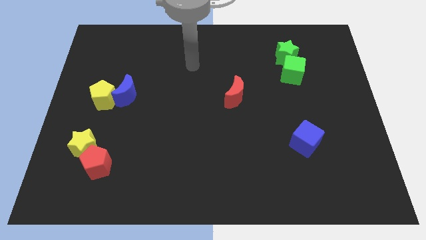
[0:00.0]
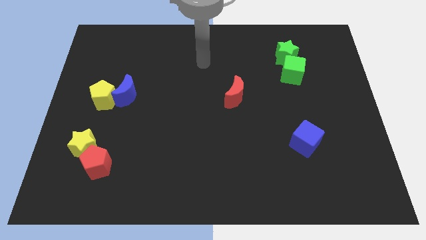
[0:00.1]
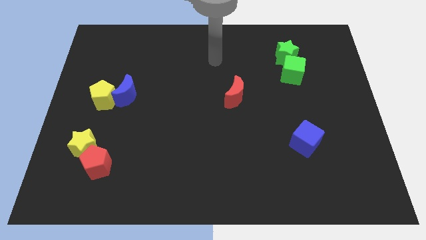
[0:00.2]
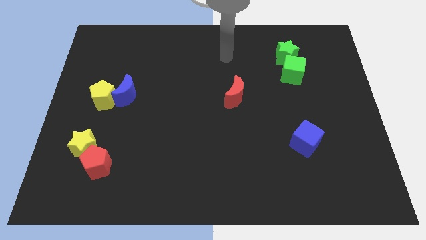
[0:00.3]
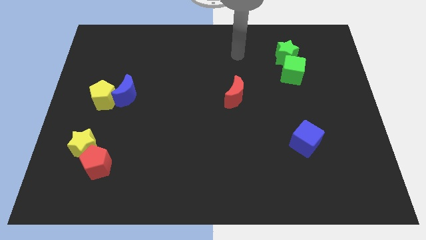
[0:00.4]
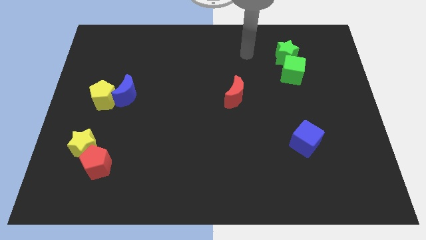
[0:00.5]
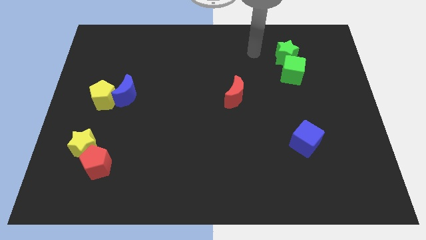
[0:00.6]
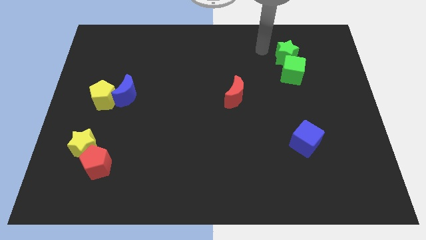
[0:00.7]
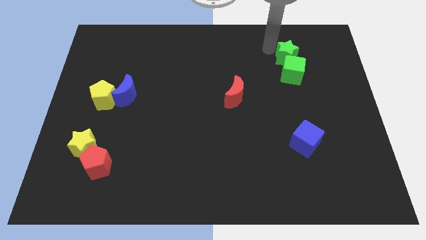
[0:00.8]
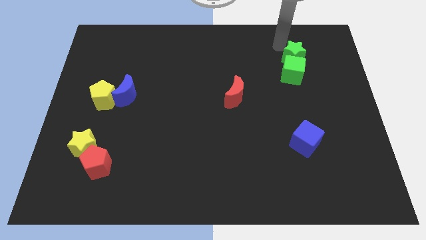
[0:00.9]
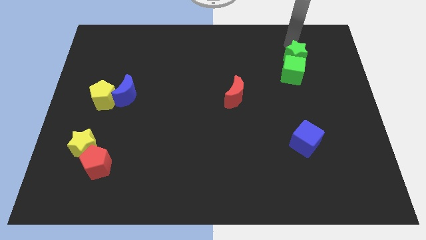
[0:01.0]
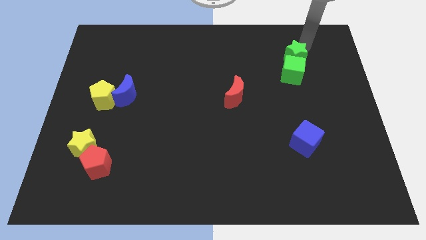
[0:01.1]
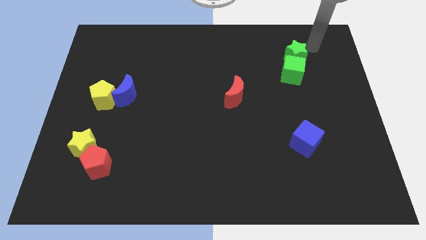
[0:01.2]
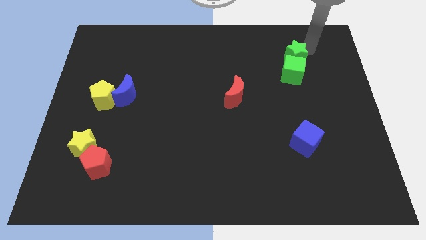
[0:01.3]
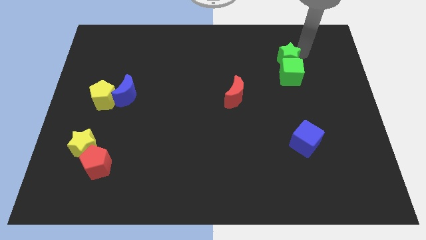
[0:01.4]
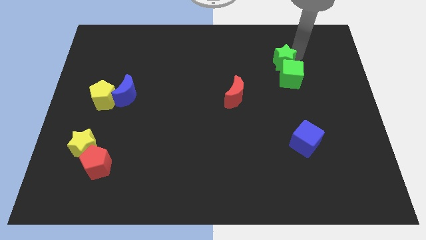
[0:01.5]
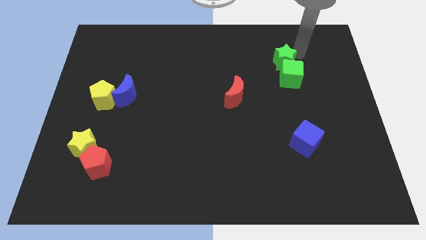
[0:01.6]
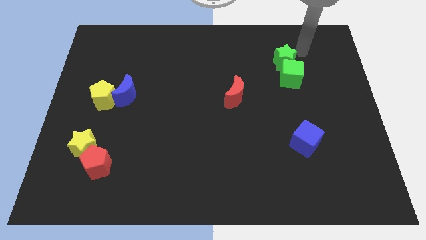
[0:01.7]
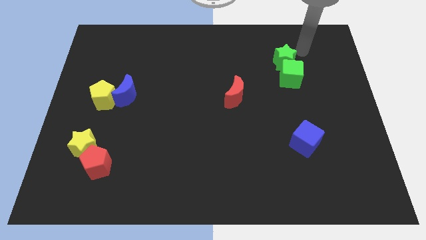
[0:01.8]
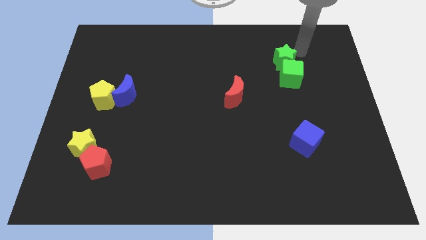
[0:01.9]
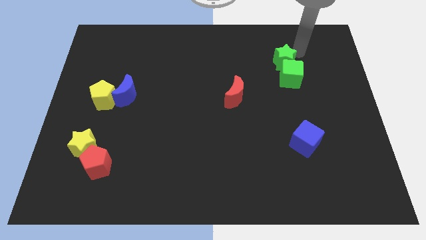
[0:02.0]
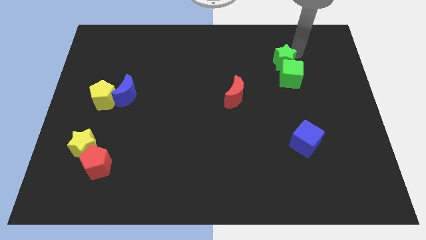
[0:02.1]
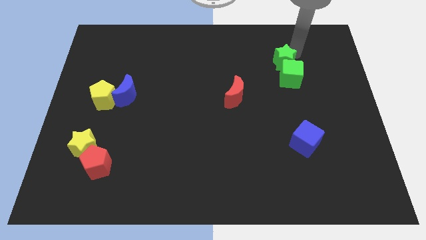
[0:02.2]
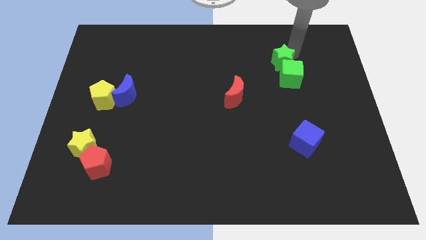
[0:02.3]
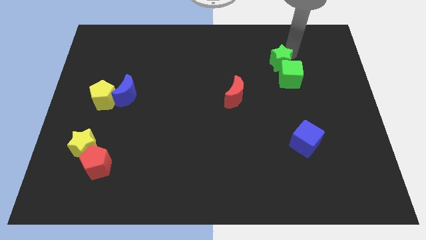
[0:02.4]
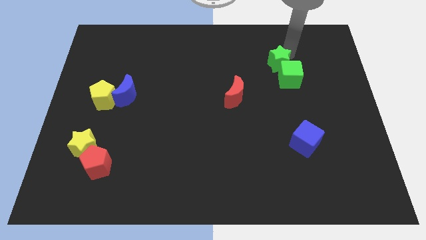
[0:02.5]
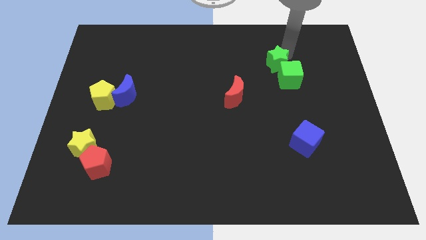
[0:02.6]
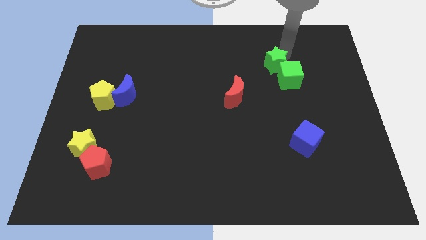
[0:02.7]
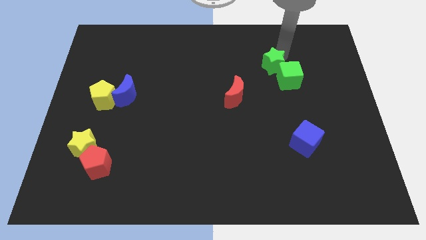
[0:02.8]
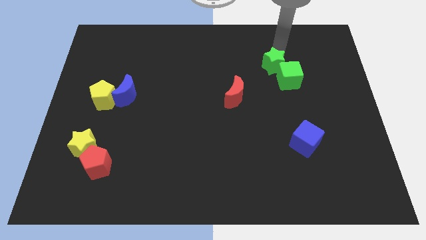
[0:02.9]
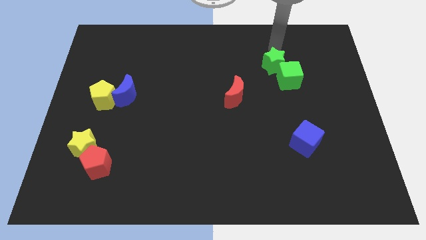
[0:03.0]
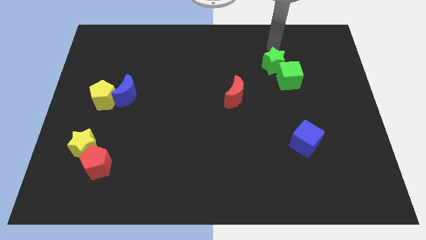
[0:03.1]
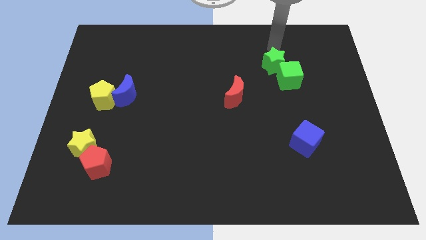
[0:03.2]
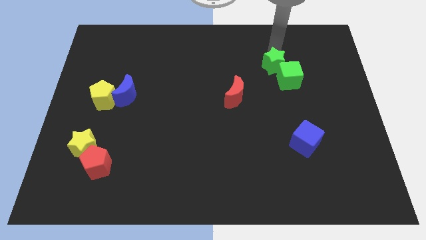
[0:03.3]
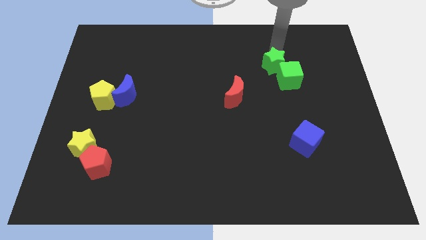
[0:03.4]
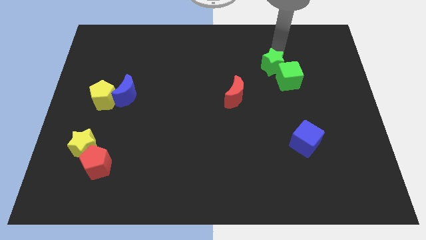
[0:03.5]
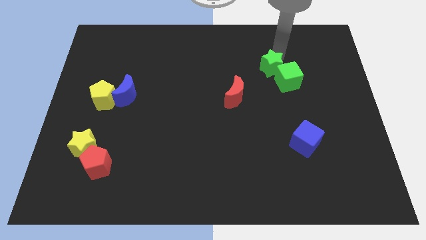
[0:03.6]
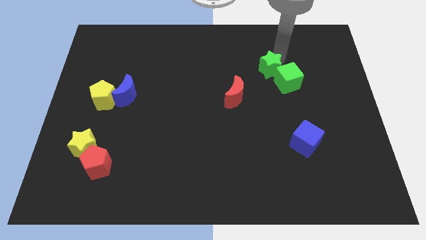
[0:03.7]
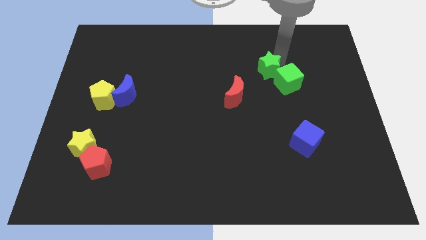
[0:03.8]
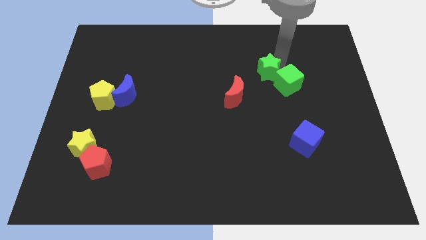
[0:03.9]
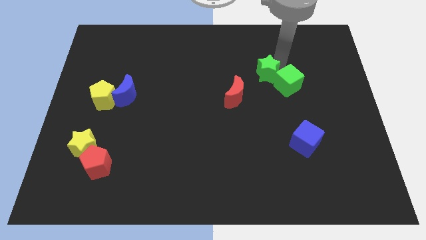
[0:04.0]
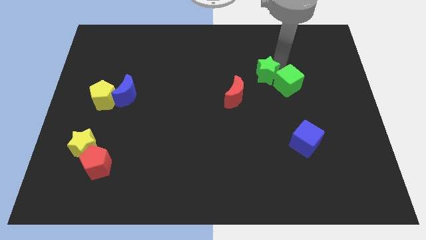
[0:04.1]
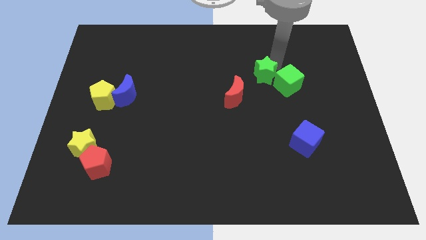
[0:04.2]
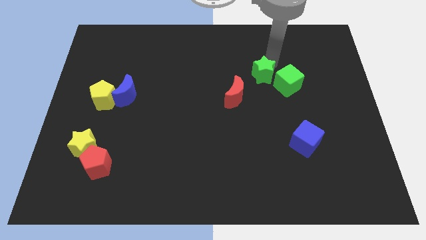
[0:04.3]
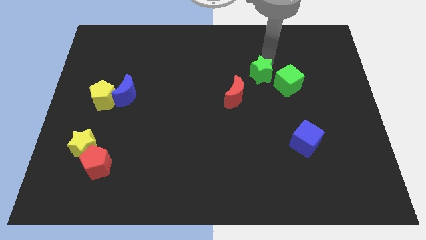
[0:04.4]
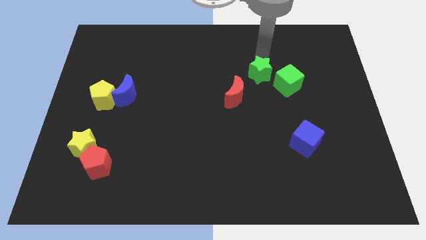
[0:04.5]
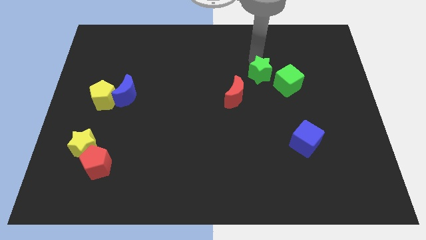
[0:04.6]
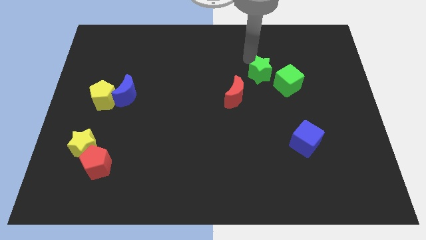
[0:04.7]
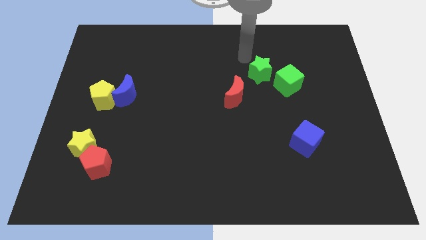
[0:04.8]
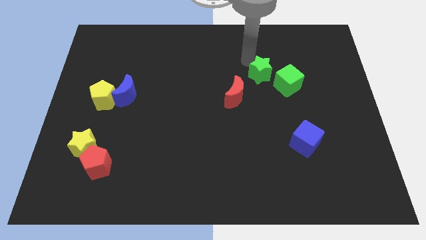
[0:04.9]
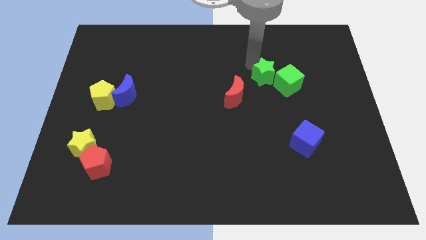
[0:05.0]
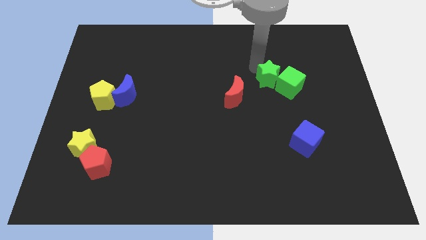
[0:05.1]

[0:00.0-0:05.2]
slightly push the green star down

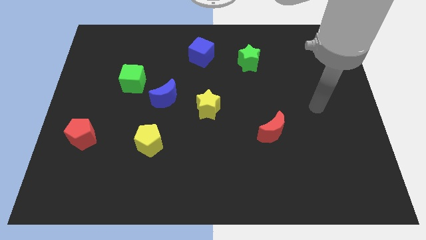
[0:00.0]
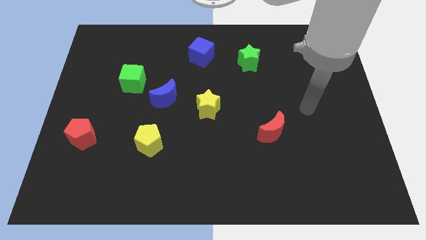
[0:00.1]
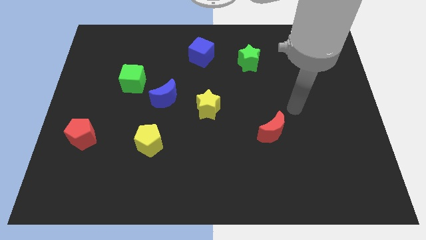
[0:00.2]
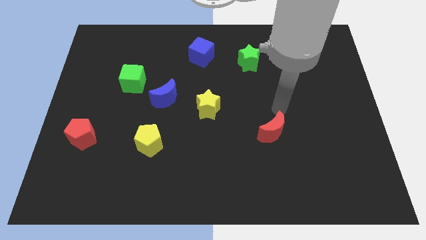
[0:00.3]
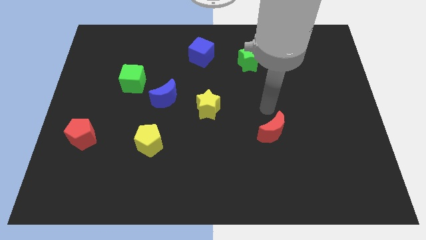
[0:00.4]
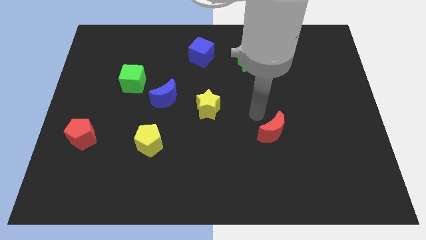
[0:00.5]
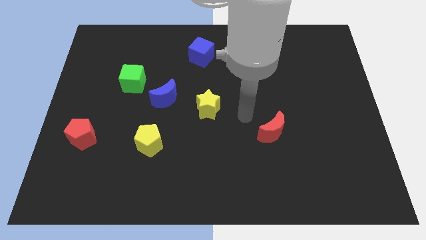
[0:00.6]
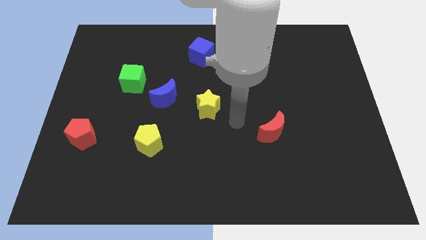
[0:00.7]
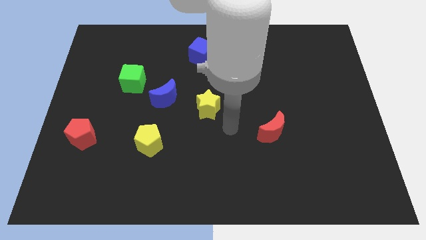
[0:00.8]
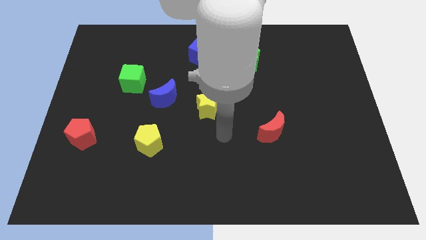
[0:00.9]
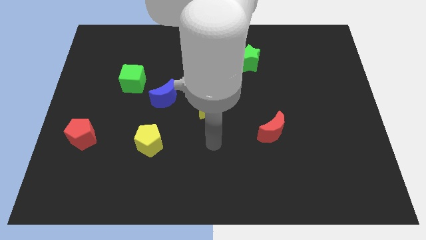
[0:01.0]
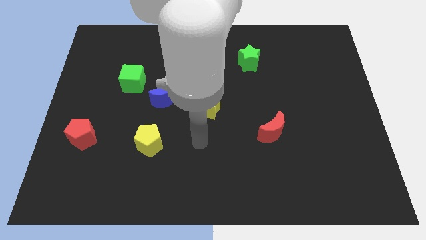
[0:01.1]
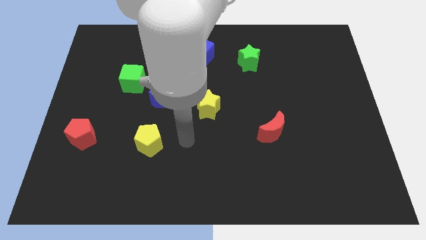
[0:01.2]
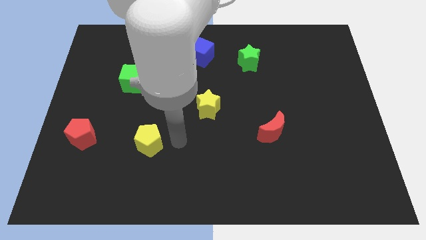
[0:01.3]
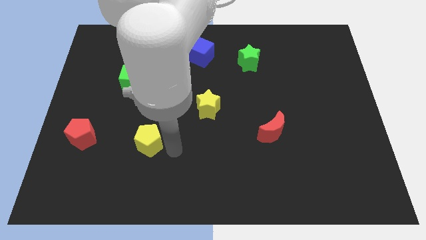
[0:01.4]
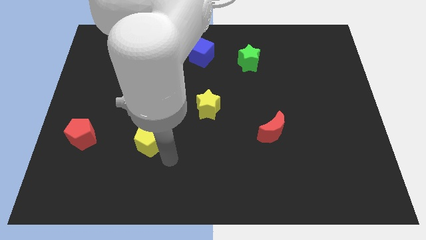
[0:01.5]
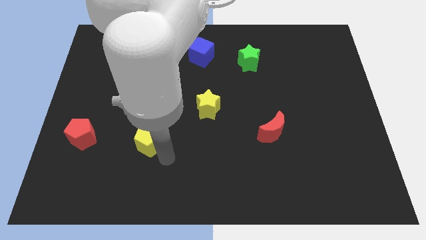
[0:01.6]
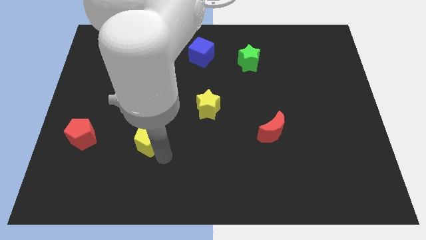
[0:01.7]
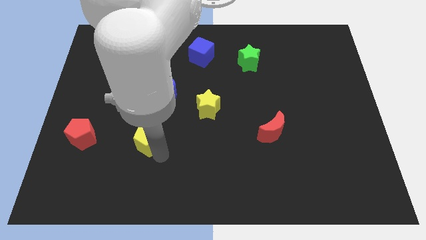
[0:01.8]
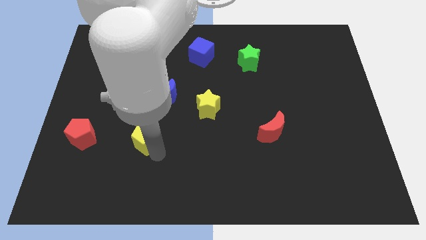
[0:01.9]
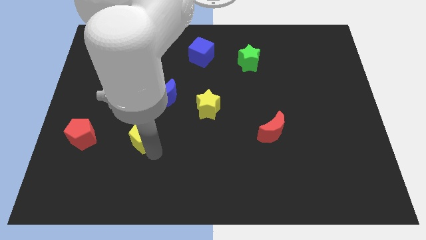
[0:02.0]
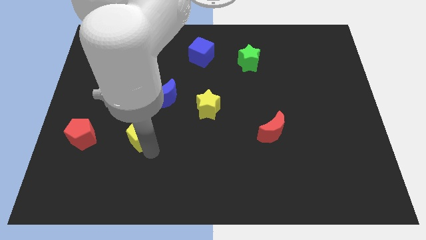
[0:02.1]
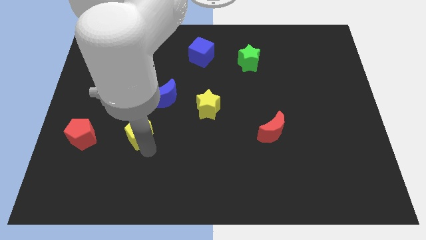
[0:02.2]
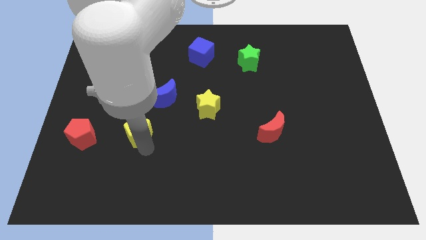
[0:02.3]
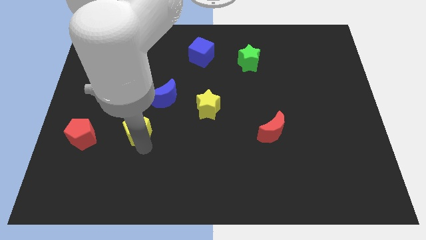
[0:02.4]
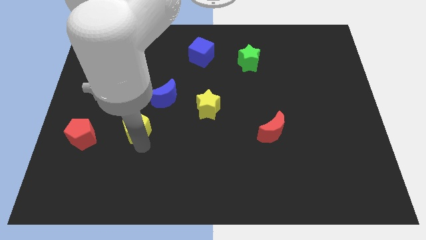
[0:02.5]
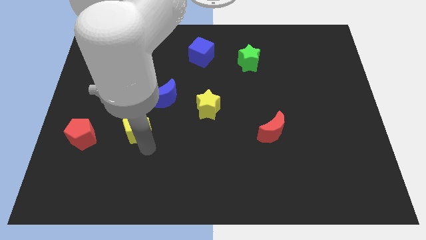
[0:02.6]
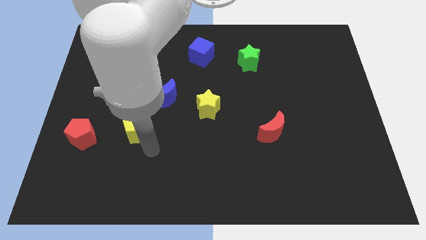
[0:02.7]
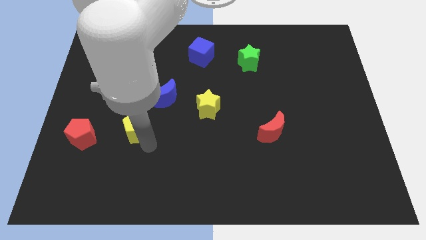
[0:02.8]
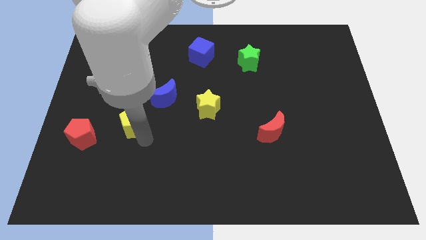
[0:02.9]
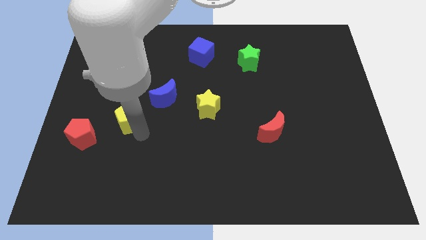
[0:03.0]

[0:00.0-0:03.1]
slightly move the yellow pentagon up and then to the left
